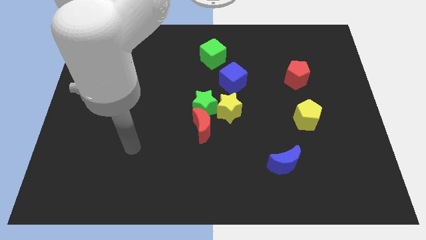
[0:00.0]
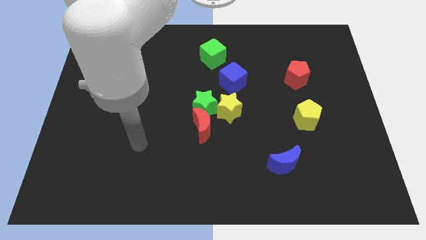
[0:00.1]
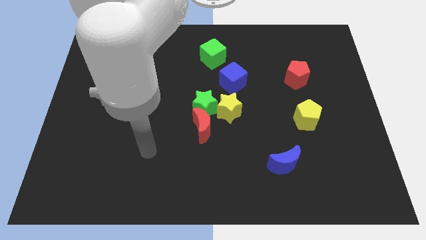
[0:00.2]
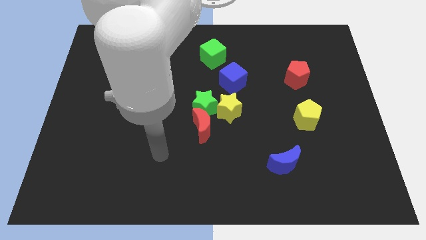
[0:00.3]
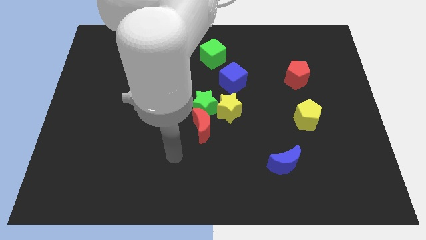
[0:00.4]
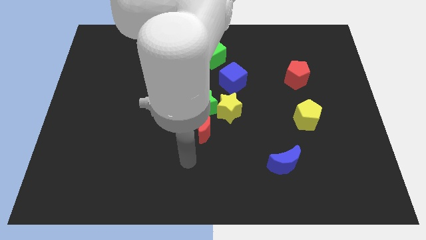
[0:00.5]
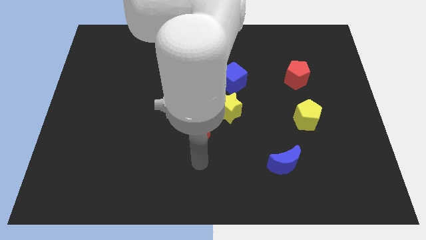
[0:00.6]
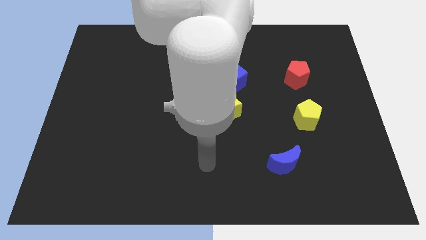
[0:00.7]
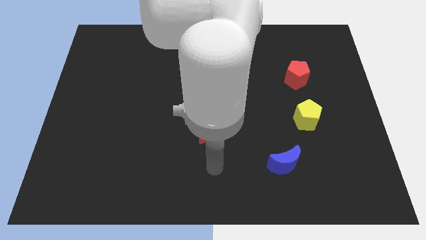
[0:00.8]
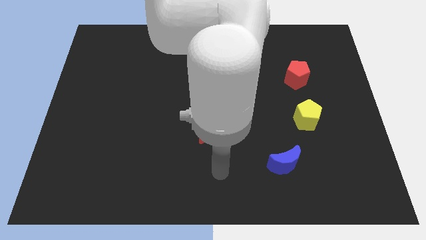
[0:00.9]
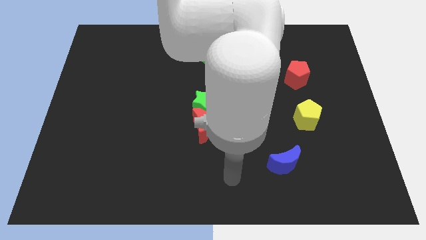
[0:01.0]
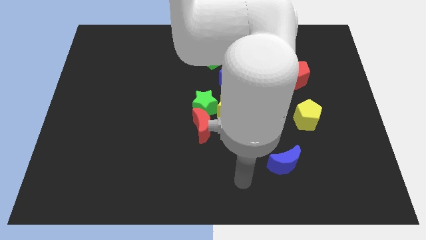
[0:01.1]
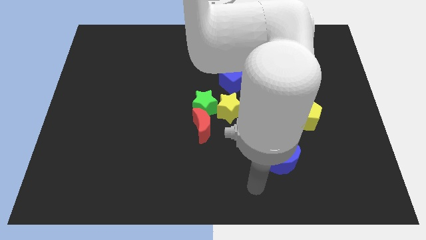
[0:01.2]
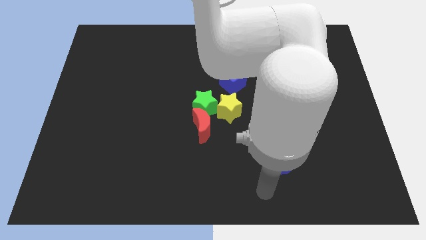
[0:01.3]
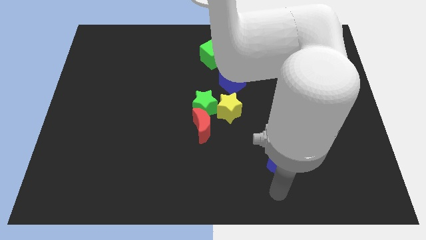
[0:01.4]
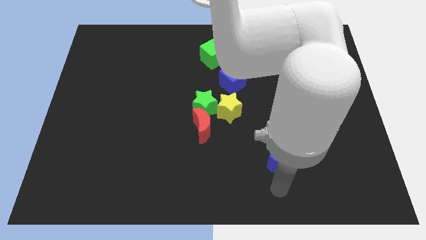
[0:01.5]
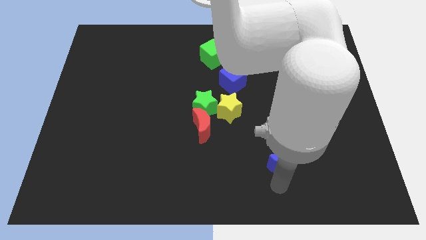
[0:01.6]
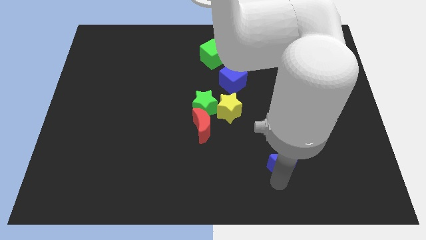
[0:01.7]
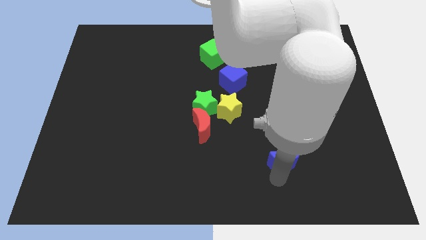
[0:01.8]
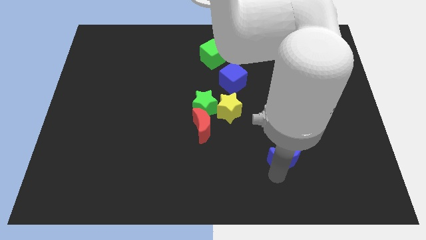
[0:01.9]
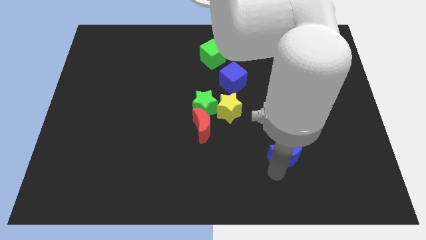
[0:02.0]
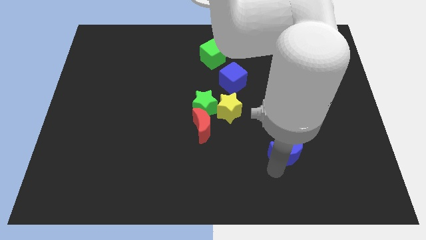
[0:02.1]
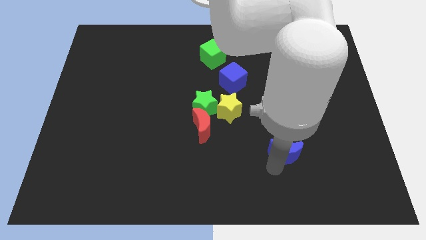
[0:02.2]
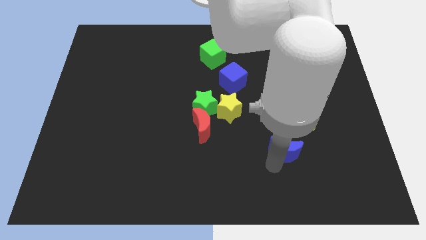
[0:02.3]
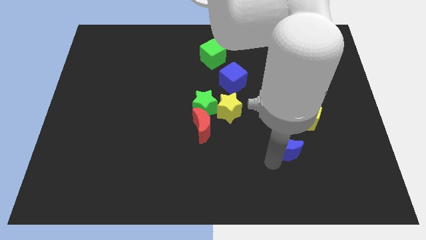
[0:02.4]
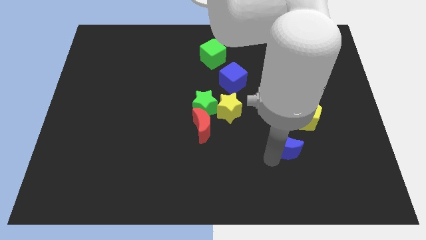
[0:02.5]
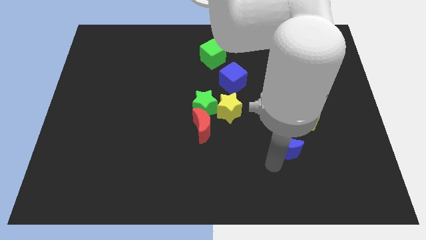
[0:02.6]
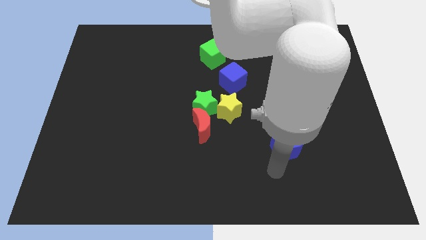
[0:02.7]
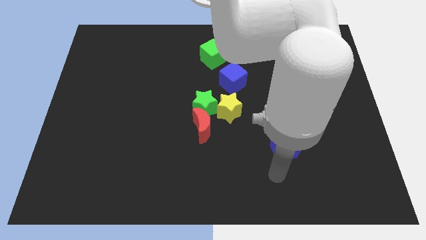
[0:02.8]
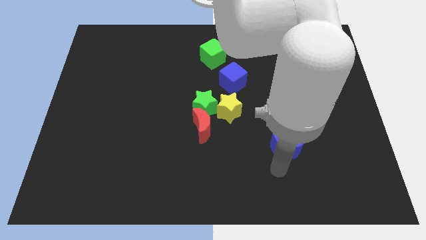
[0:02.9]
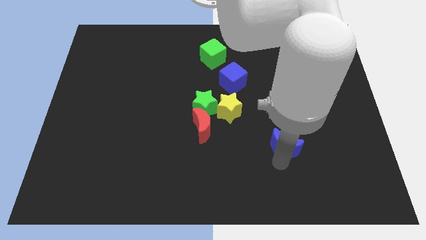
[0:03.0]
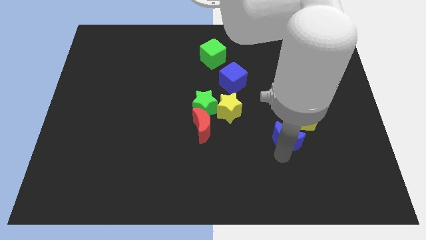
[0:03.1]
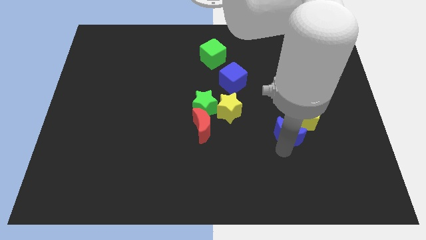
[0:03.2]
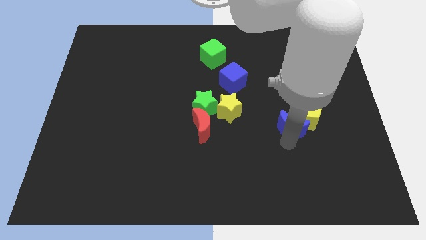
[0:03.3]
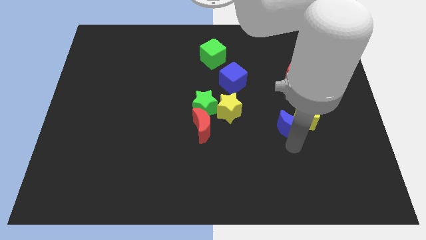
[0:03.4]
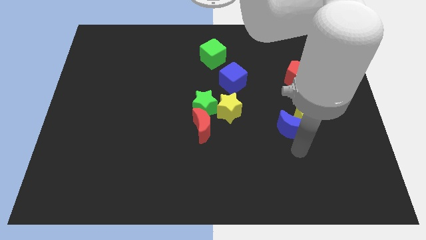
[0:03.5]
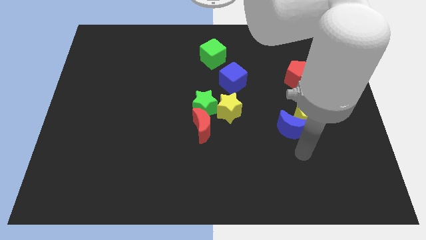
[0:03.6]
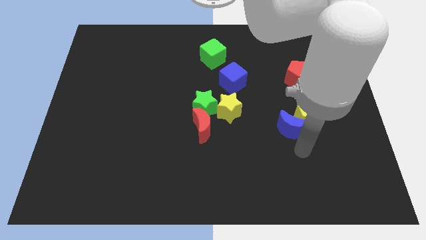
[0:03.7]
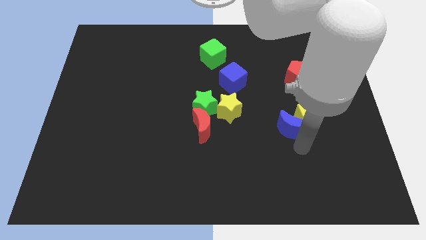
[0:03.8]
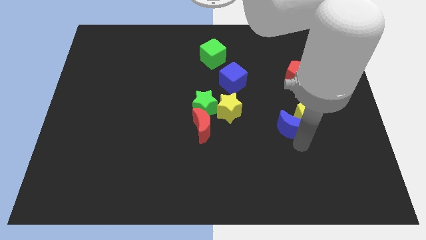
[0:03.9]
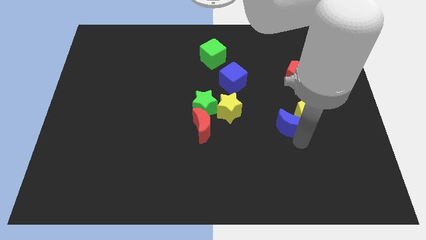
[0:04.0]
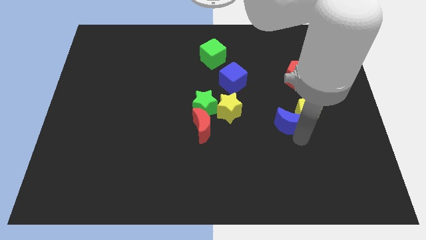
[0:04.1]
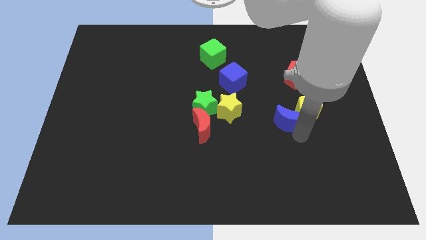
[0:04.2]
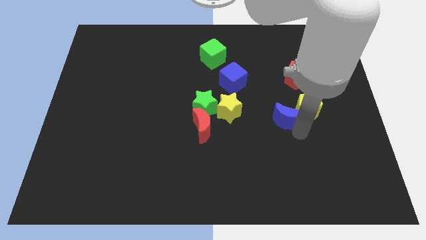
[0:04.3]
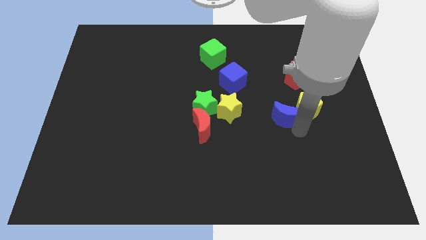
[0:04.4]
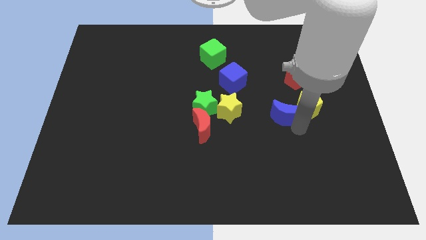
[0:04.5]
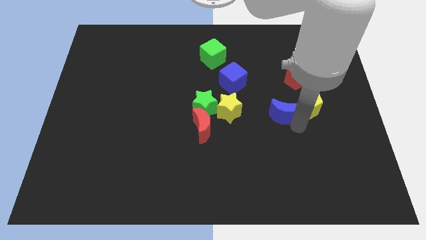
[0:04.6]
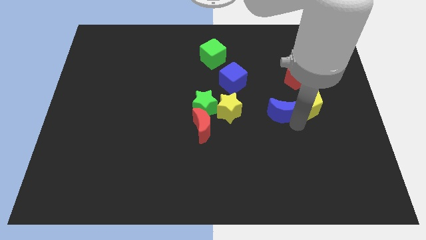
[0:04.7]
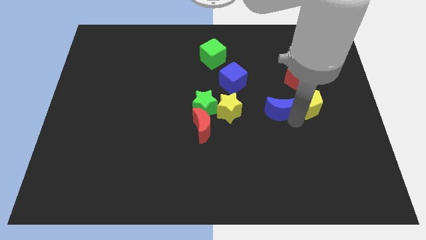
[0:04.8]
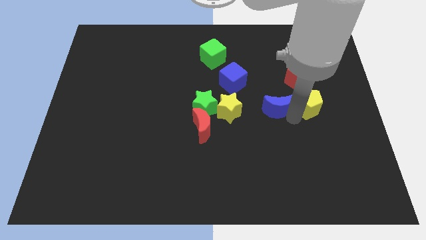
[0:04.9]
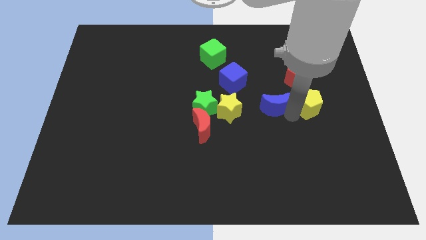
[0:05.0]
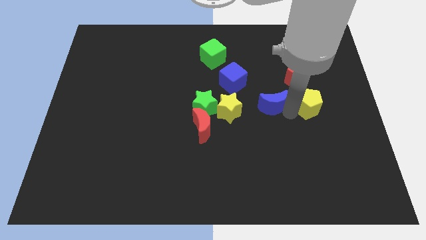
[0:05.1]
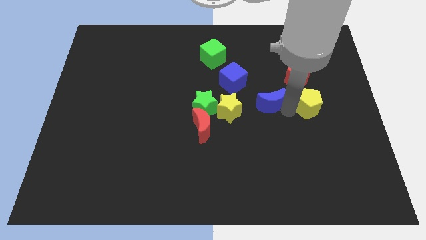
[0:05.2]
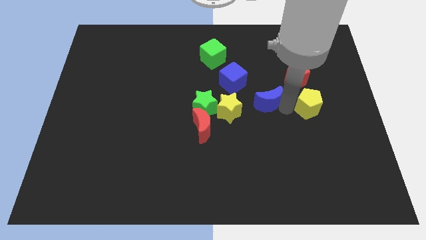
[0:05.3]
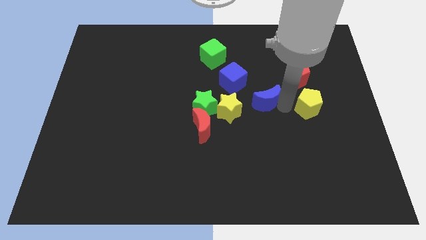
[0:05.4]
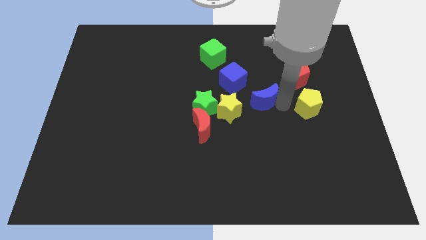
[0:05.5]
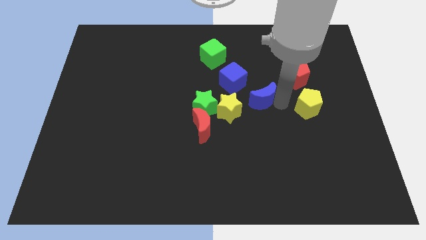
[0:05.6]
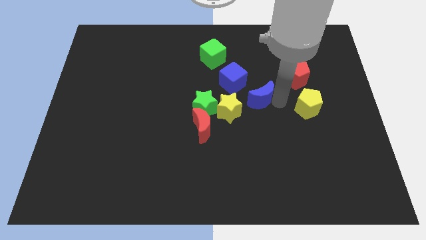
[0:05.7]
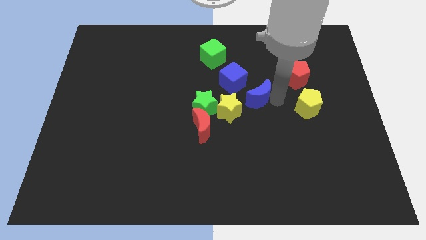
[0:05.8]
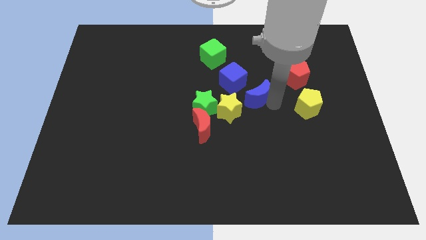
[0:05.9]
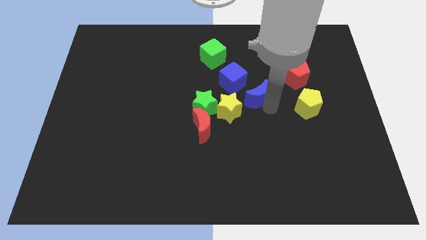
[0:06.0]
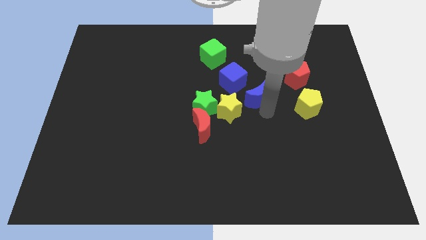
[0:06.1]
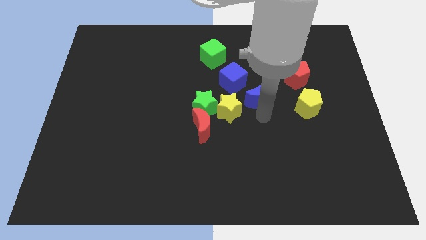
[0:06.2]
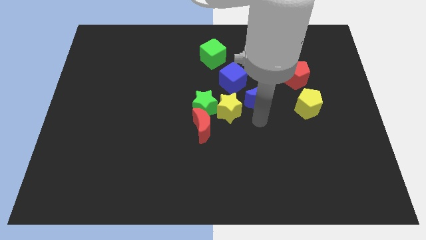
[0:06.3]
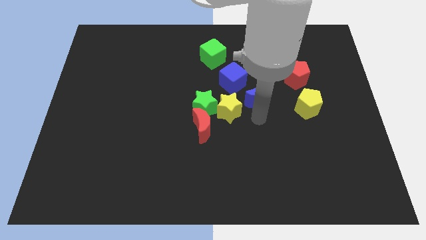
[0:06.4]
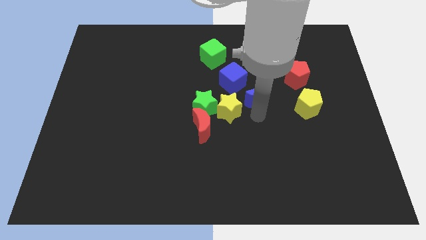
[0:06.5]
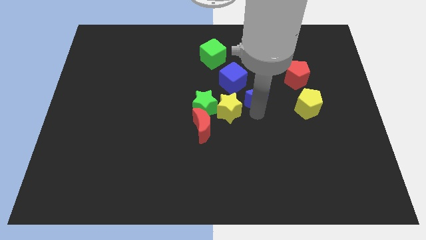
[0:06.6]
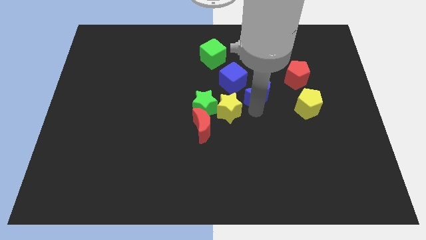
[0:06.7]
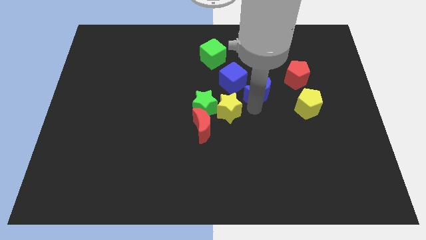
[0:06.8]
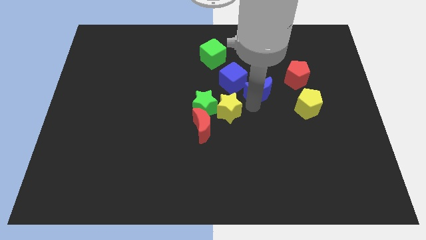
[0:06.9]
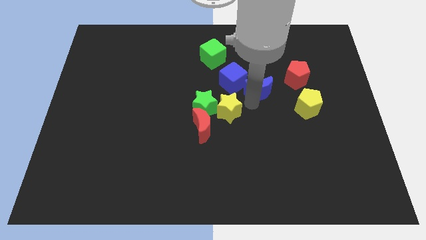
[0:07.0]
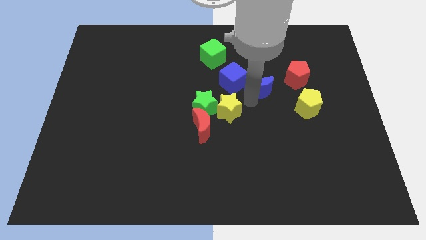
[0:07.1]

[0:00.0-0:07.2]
slide the blue moon up

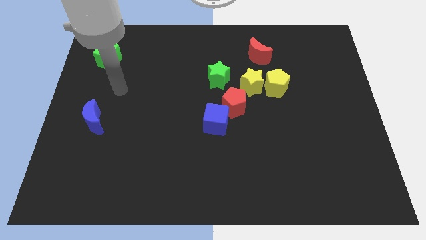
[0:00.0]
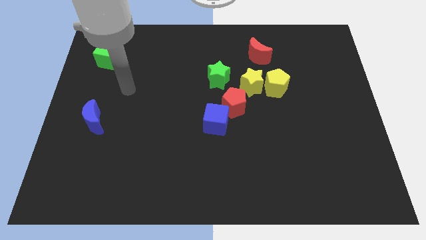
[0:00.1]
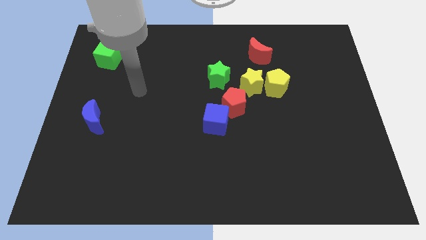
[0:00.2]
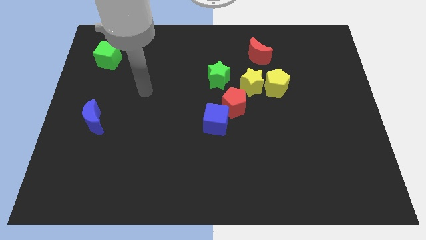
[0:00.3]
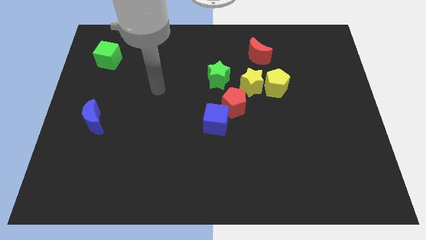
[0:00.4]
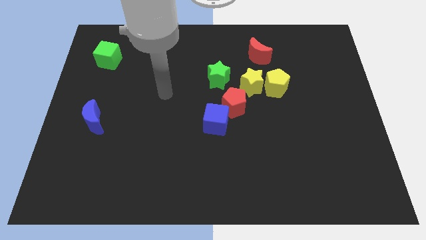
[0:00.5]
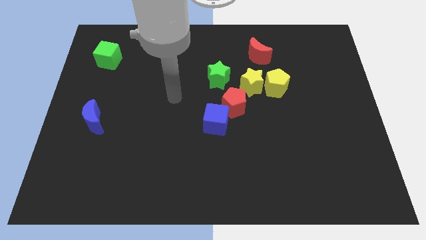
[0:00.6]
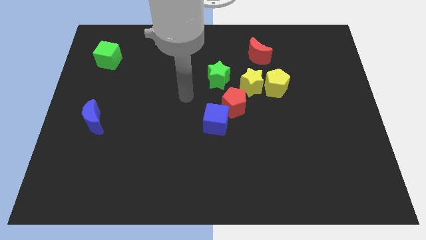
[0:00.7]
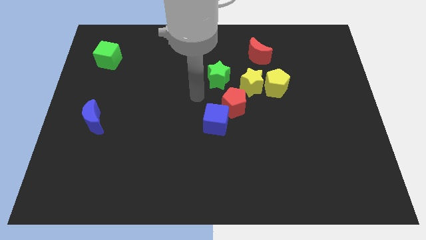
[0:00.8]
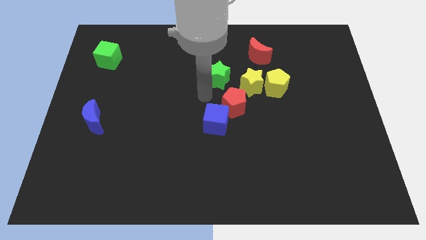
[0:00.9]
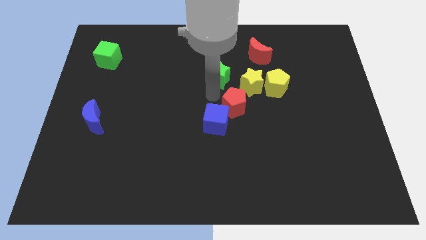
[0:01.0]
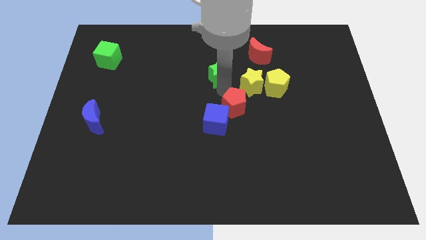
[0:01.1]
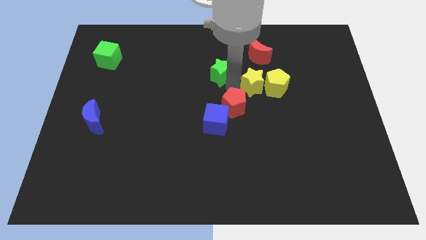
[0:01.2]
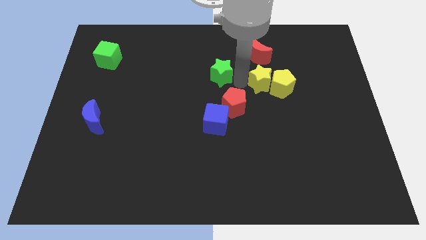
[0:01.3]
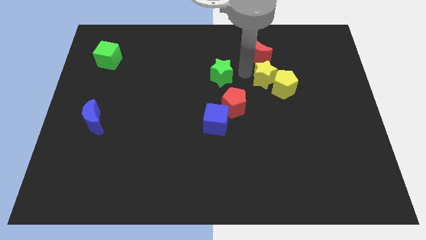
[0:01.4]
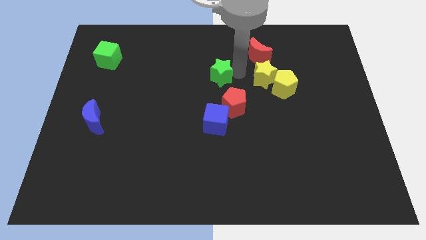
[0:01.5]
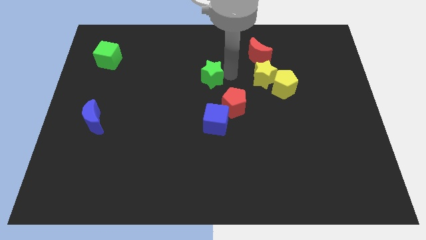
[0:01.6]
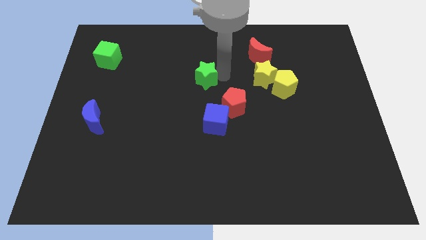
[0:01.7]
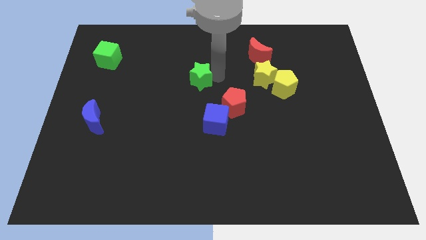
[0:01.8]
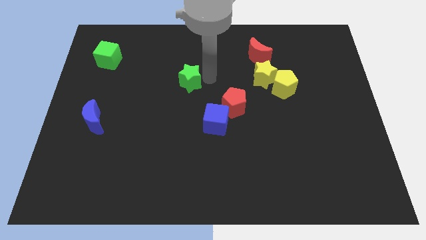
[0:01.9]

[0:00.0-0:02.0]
slide the green star to the left somewhat
